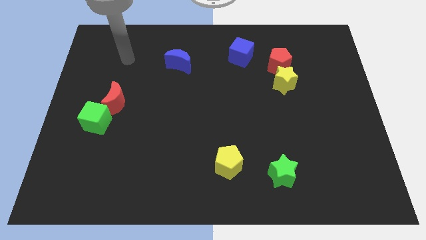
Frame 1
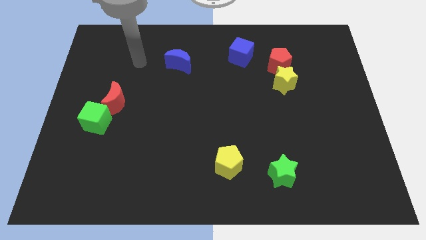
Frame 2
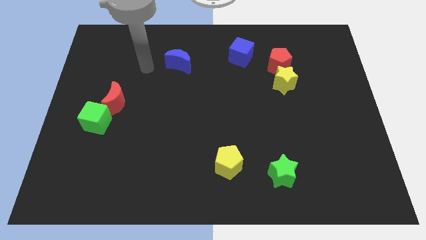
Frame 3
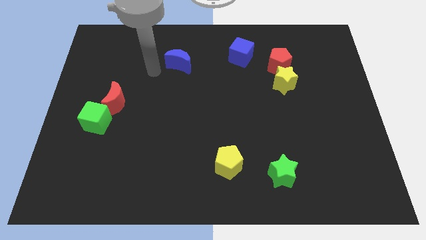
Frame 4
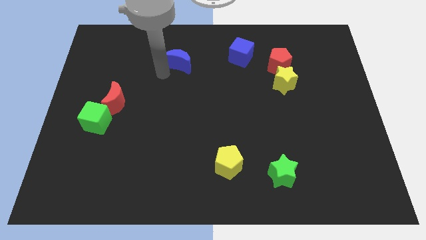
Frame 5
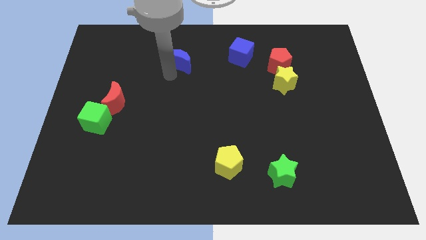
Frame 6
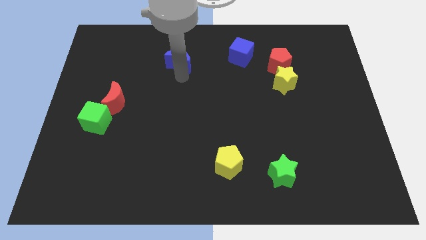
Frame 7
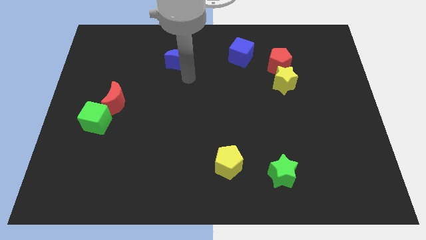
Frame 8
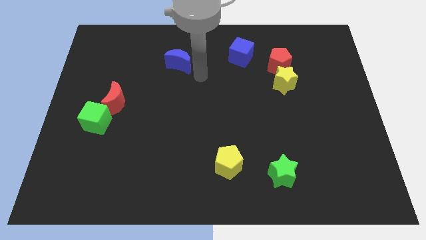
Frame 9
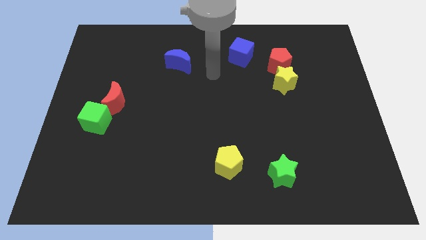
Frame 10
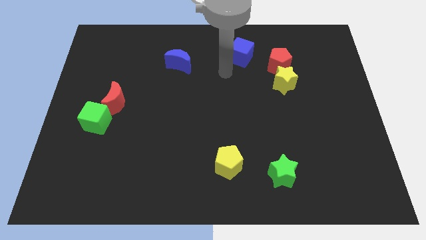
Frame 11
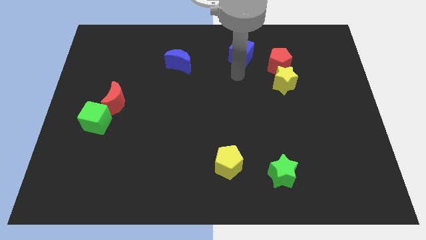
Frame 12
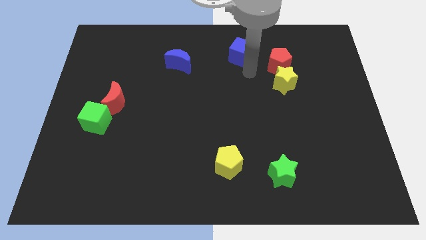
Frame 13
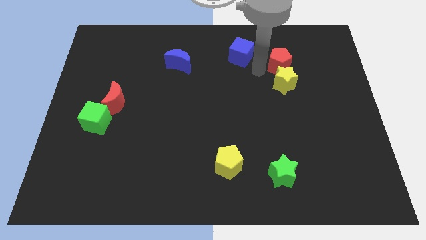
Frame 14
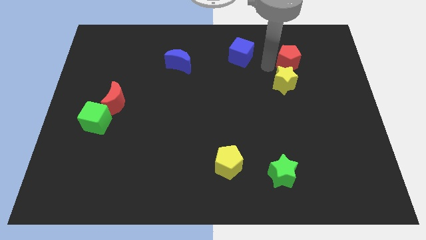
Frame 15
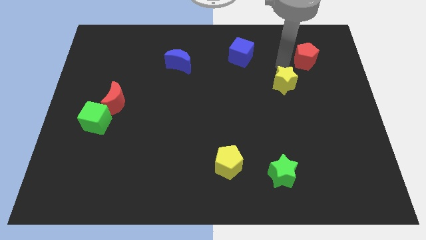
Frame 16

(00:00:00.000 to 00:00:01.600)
move the yellow star away from the red pentagon

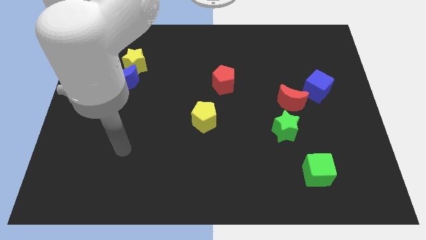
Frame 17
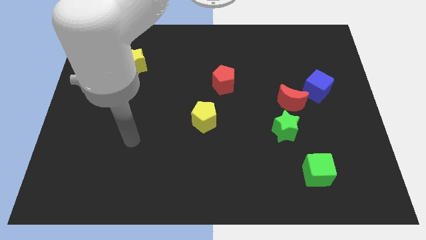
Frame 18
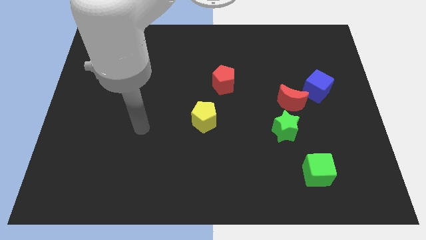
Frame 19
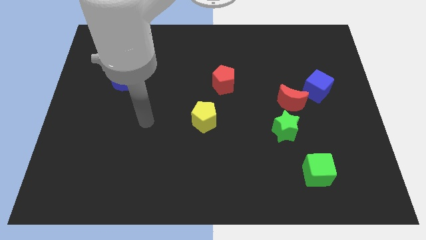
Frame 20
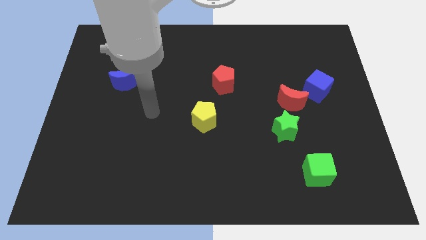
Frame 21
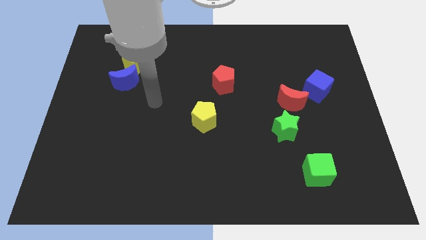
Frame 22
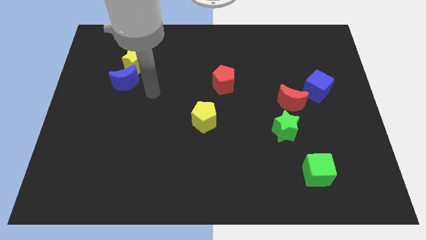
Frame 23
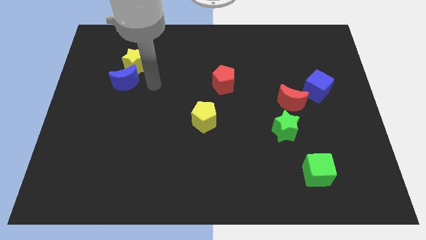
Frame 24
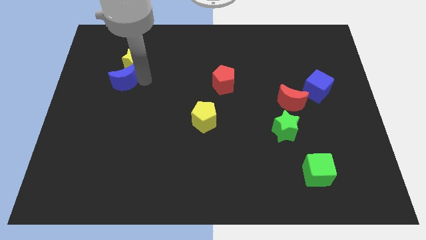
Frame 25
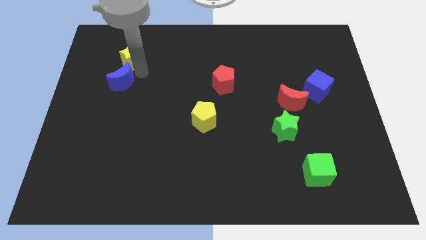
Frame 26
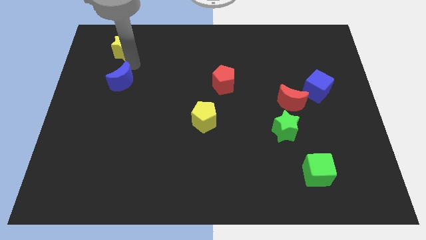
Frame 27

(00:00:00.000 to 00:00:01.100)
separate the blue moon from the yellow star

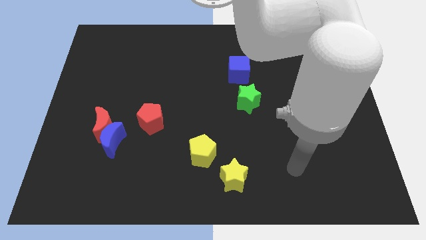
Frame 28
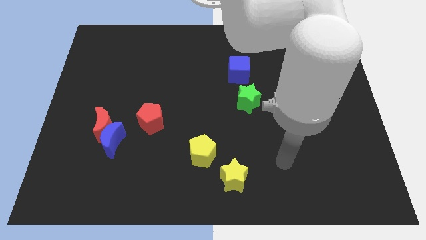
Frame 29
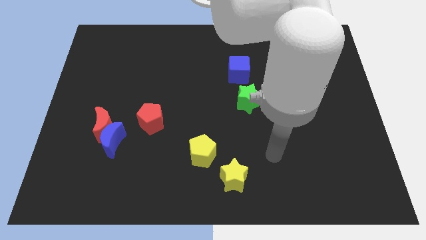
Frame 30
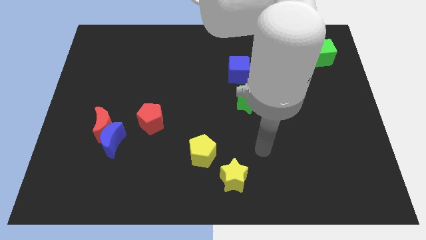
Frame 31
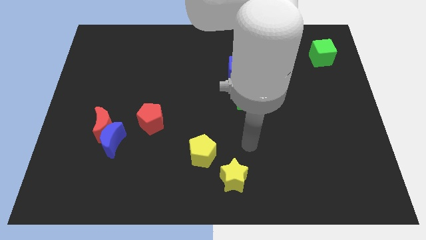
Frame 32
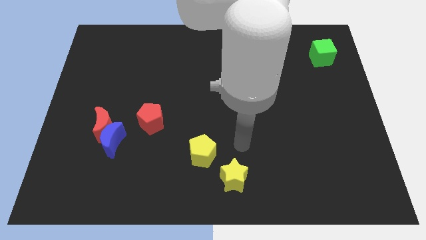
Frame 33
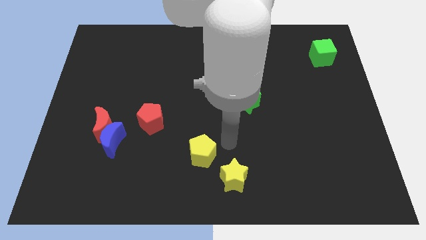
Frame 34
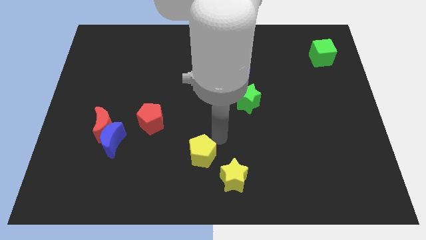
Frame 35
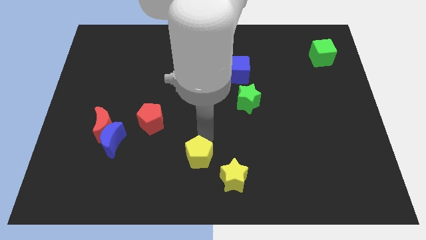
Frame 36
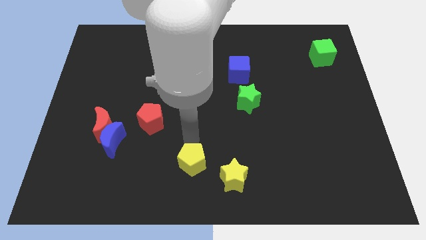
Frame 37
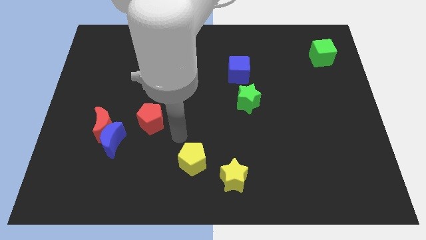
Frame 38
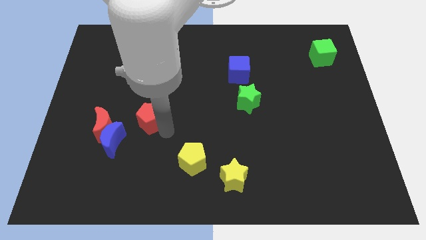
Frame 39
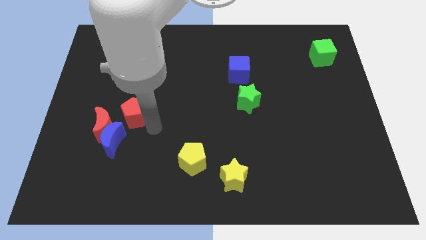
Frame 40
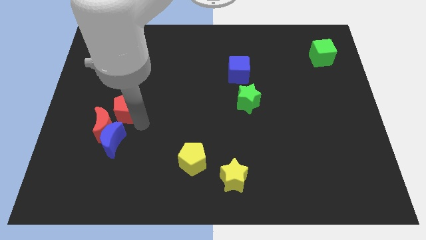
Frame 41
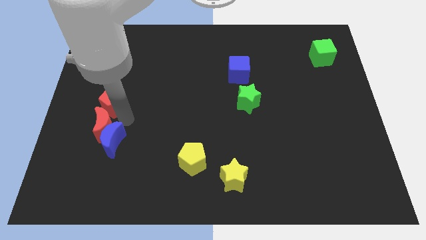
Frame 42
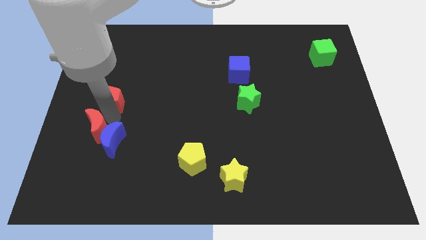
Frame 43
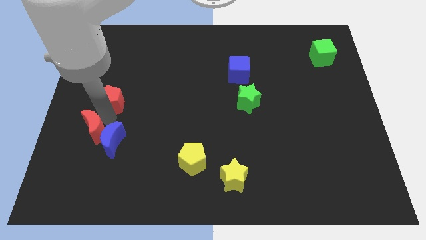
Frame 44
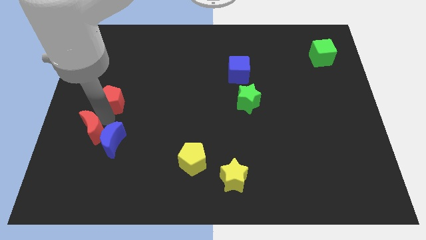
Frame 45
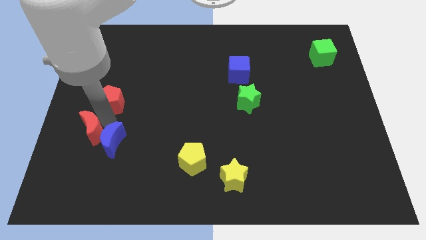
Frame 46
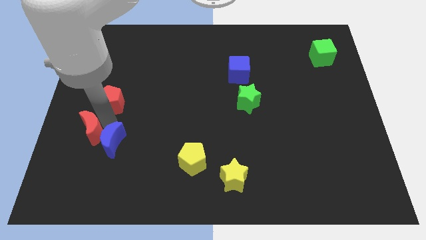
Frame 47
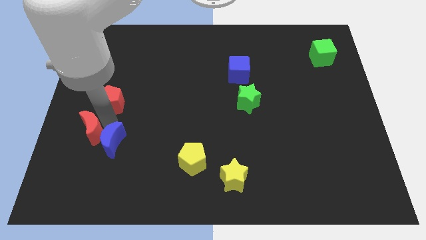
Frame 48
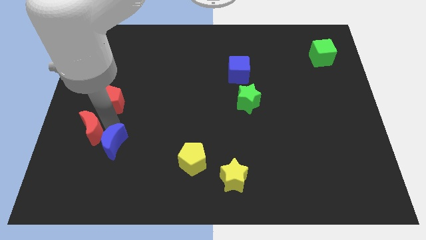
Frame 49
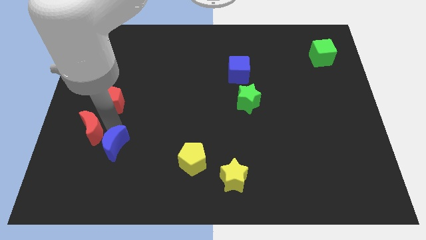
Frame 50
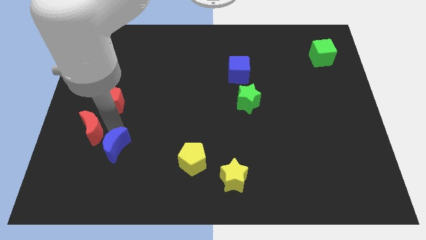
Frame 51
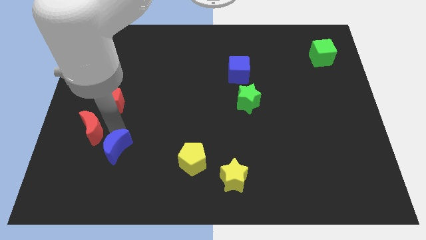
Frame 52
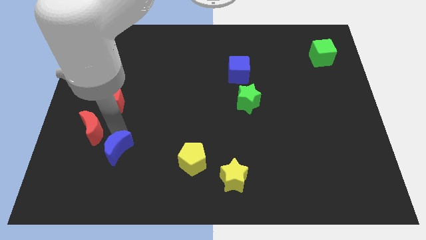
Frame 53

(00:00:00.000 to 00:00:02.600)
pull the blue moon apart from the red moon and red pentagon

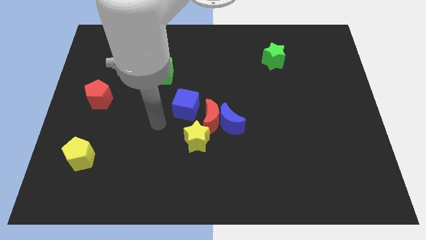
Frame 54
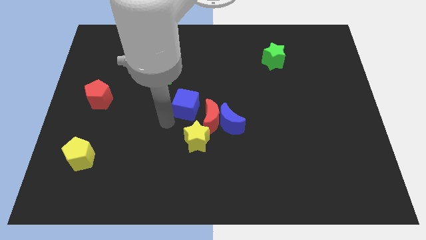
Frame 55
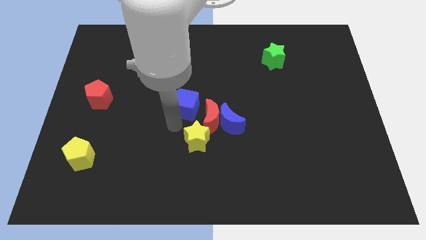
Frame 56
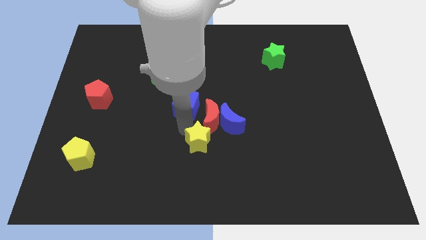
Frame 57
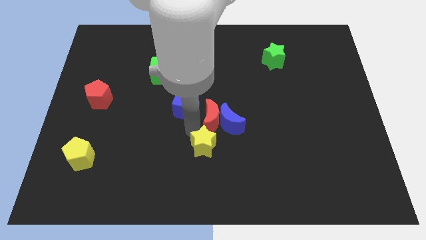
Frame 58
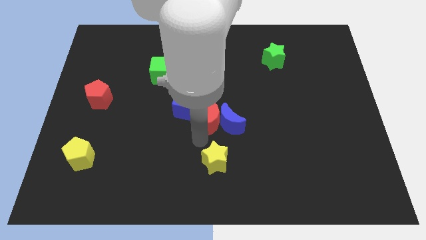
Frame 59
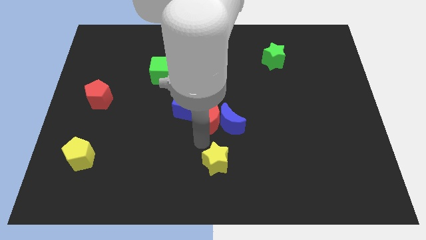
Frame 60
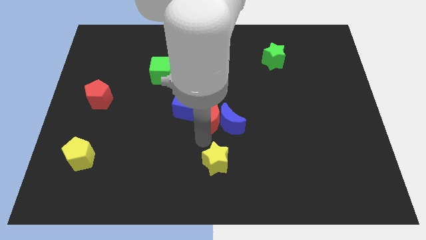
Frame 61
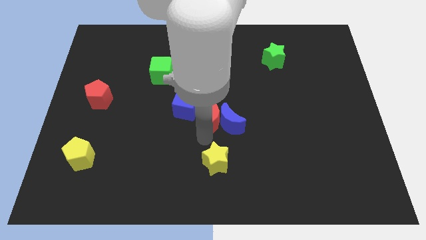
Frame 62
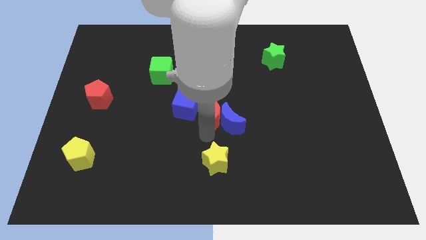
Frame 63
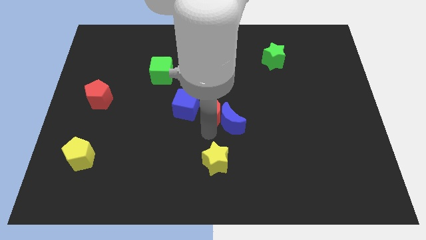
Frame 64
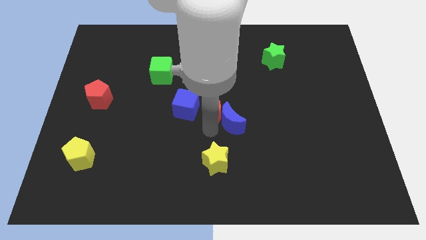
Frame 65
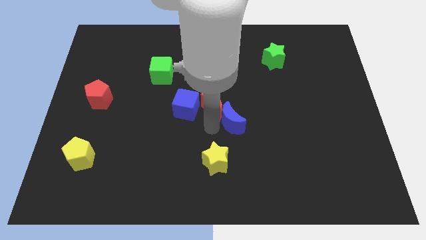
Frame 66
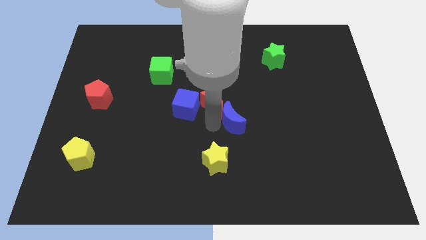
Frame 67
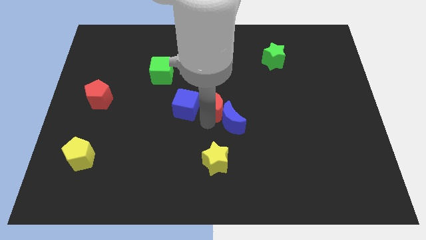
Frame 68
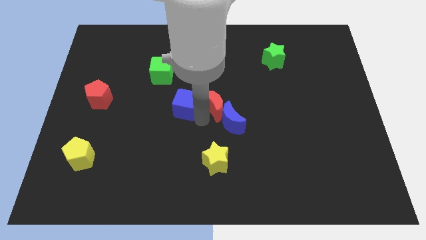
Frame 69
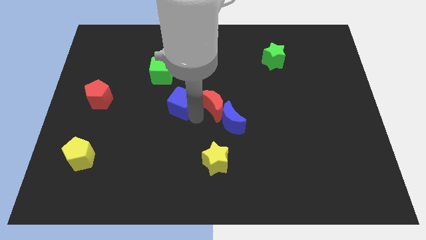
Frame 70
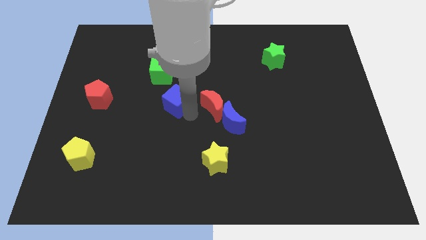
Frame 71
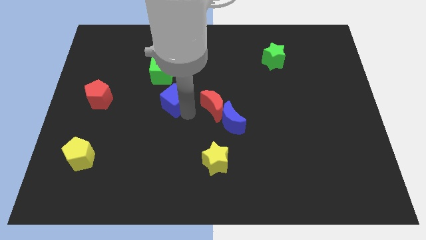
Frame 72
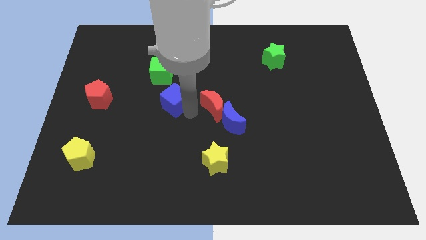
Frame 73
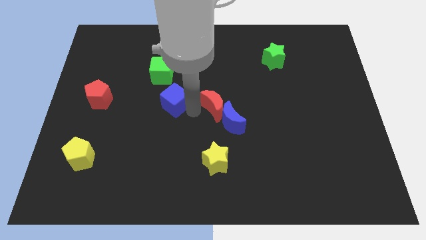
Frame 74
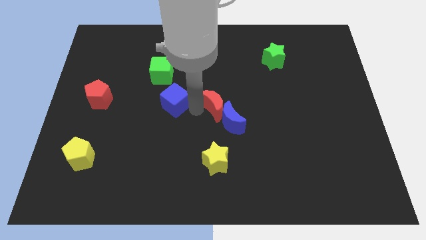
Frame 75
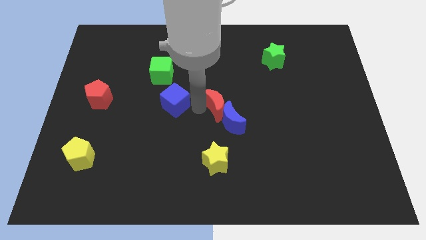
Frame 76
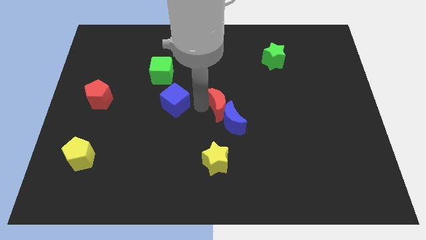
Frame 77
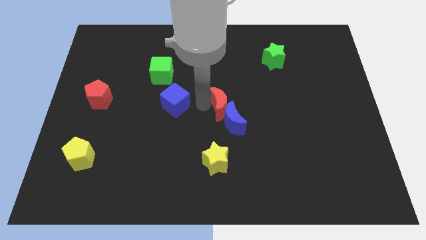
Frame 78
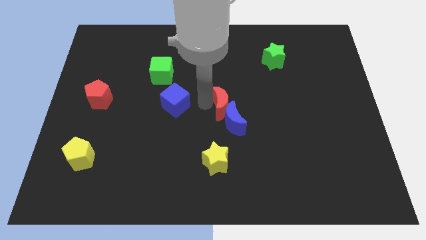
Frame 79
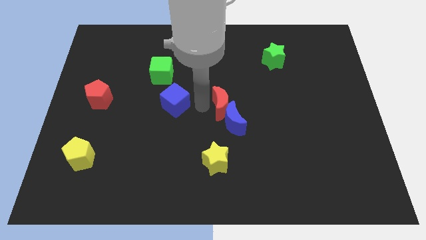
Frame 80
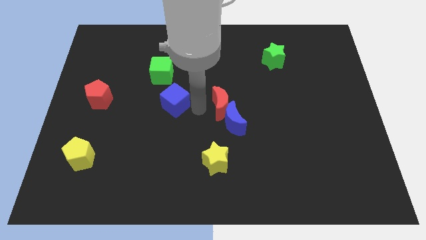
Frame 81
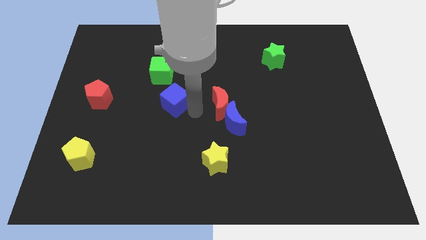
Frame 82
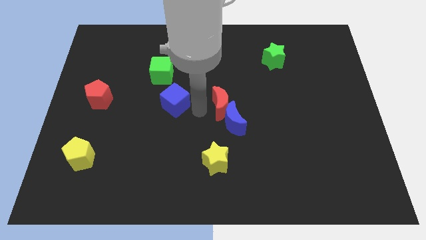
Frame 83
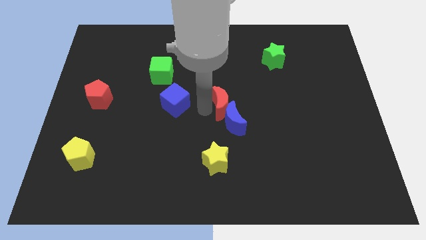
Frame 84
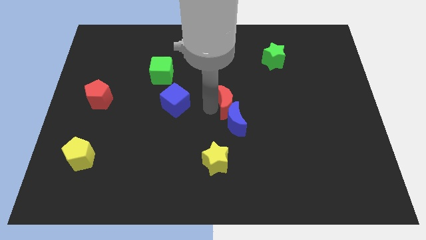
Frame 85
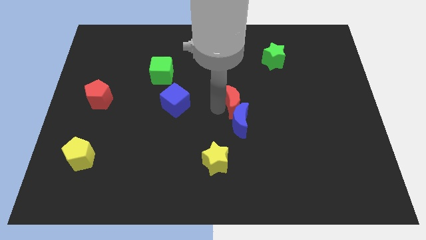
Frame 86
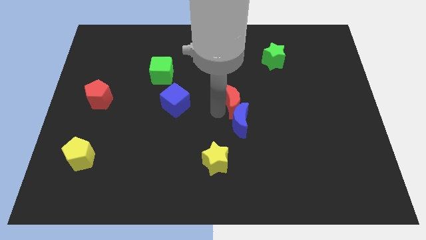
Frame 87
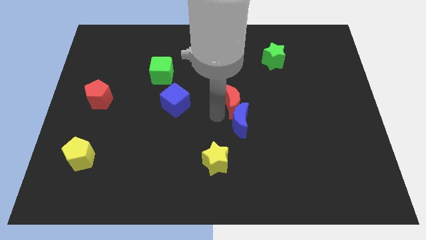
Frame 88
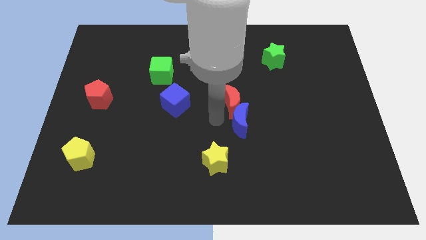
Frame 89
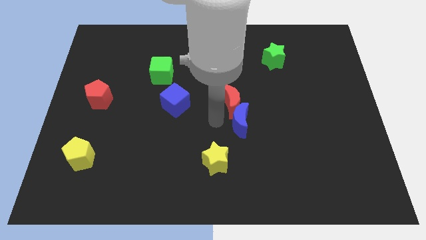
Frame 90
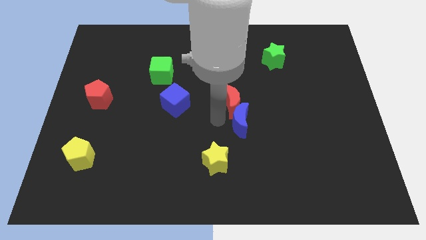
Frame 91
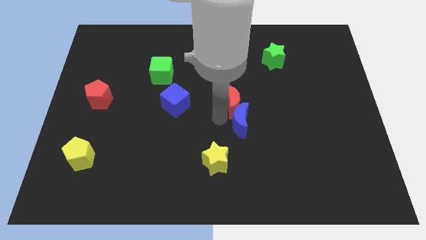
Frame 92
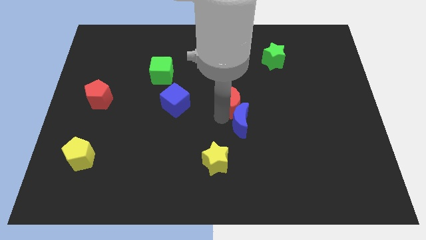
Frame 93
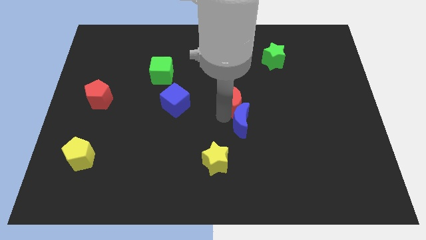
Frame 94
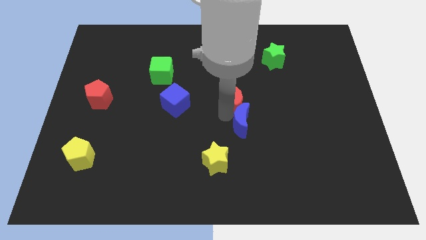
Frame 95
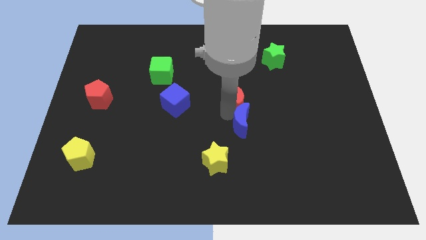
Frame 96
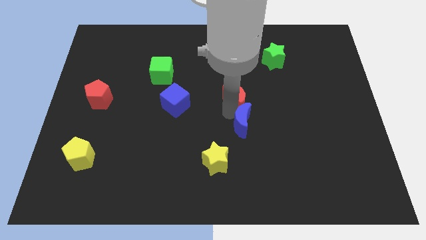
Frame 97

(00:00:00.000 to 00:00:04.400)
separate the red moon from the group
